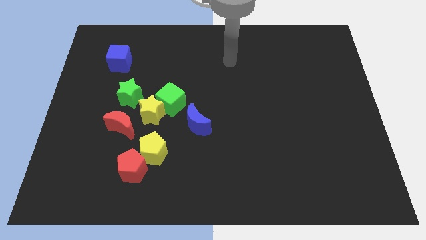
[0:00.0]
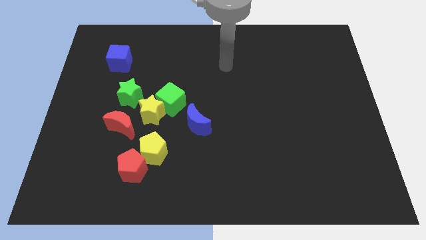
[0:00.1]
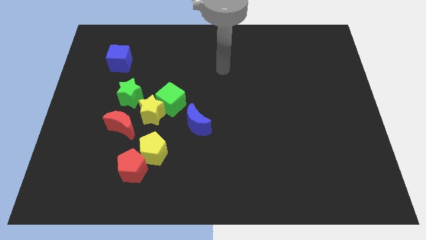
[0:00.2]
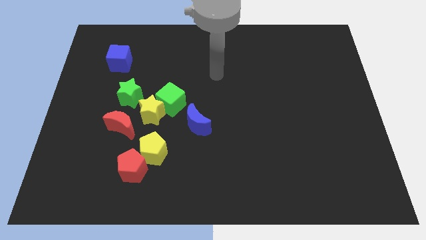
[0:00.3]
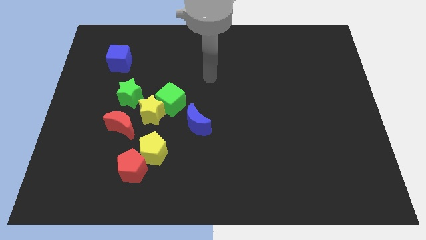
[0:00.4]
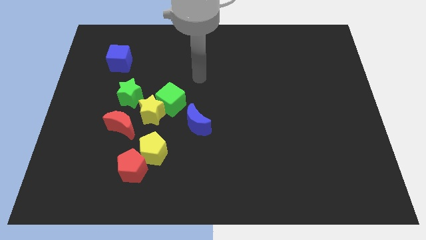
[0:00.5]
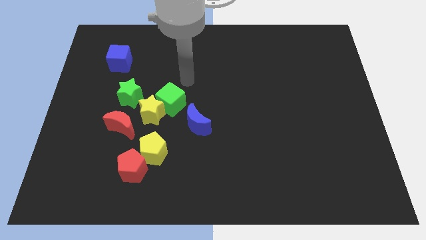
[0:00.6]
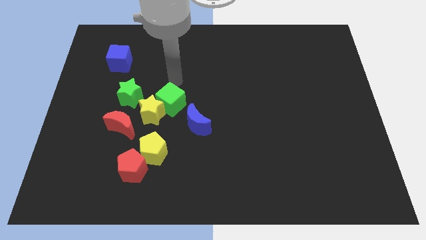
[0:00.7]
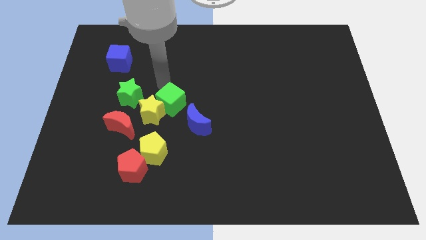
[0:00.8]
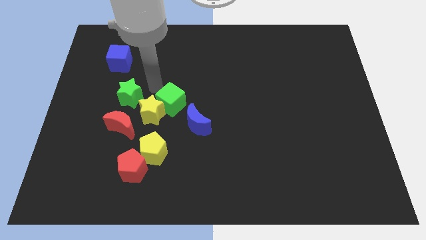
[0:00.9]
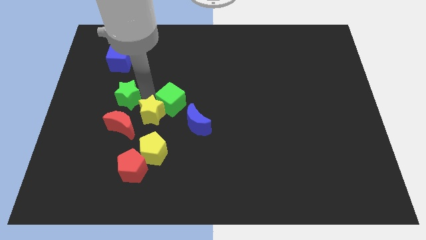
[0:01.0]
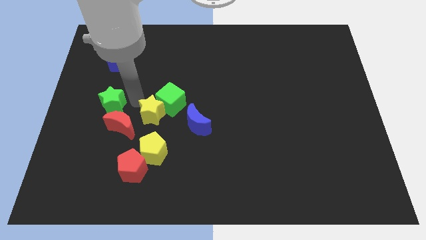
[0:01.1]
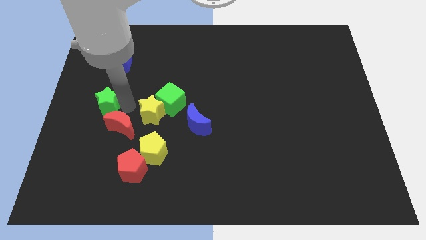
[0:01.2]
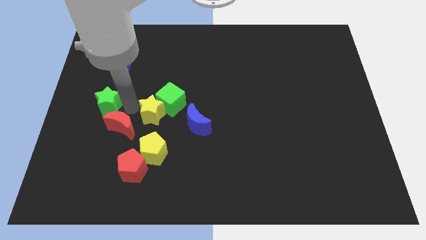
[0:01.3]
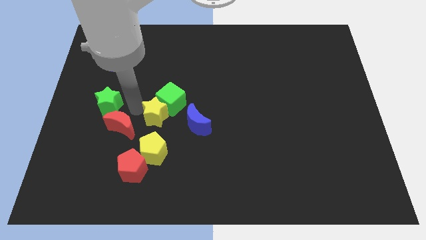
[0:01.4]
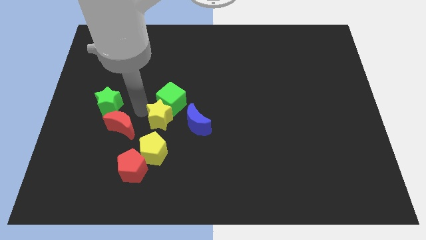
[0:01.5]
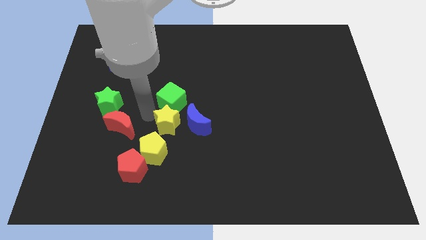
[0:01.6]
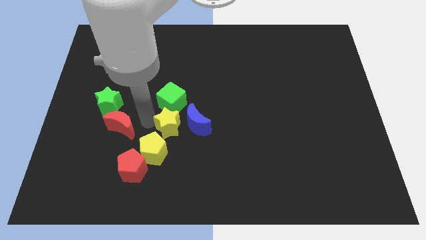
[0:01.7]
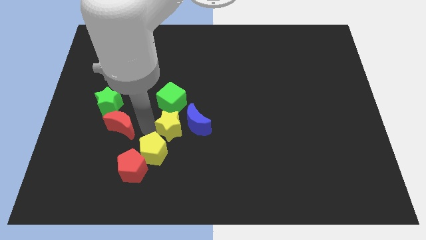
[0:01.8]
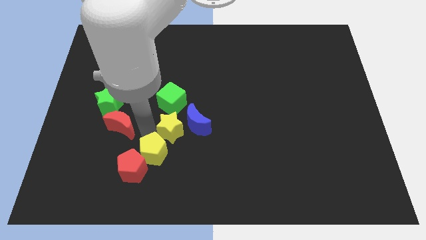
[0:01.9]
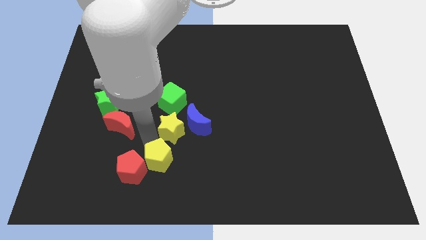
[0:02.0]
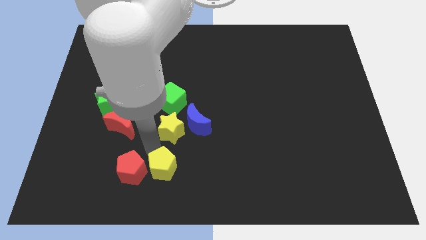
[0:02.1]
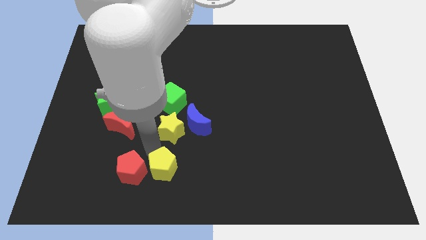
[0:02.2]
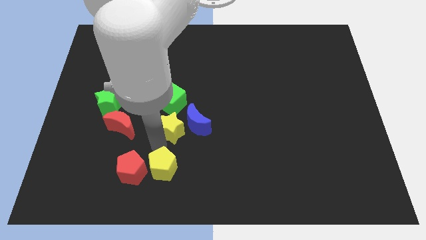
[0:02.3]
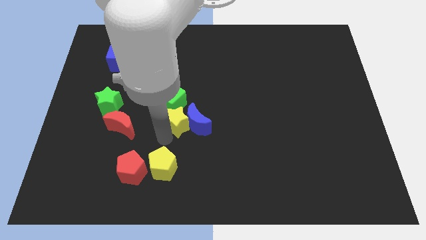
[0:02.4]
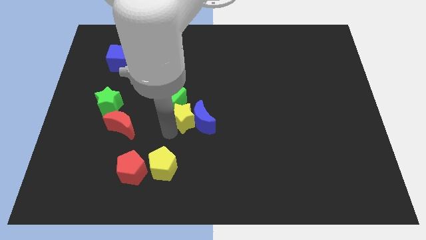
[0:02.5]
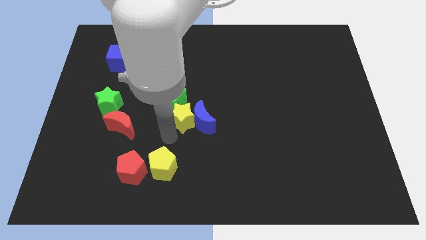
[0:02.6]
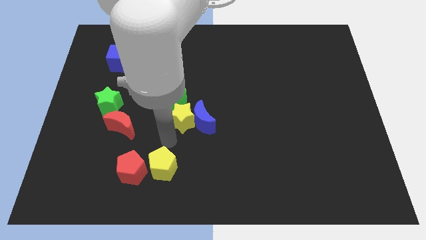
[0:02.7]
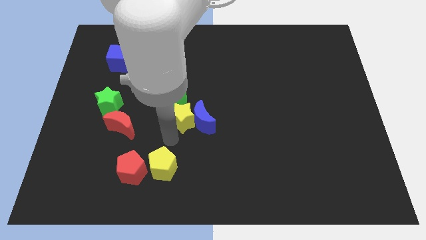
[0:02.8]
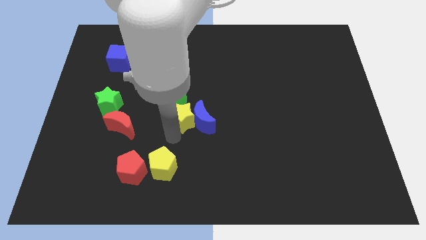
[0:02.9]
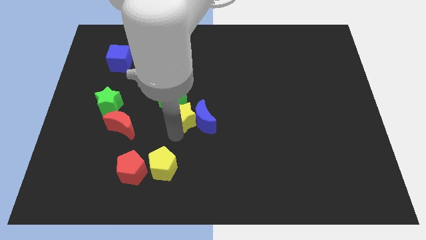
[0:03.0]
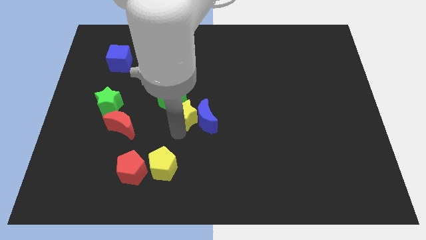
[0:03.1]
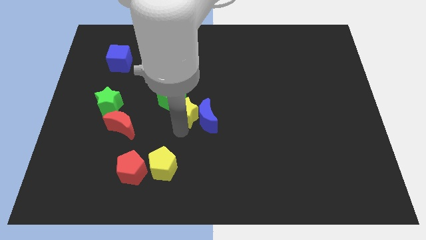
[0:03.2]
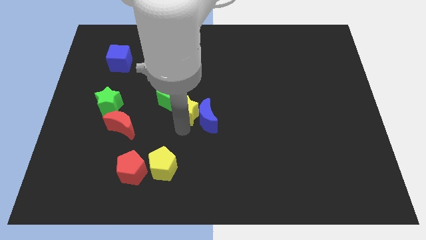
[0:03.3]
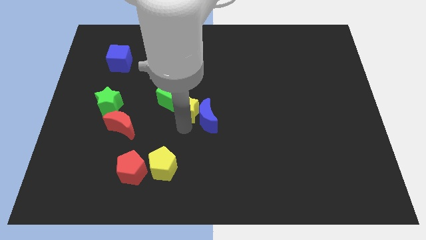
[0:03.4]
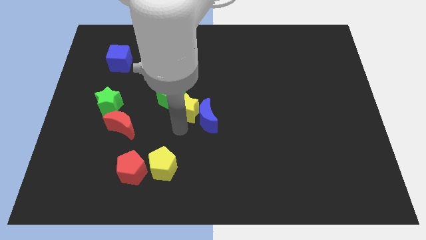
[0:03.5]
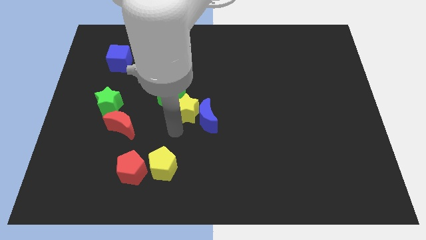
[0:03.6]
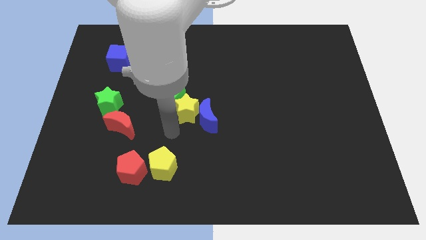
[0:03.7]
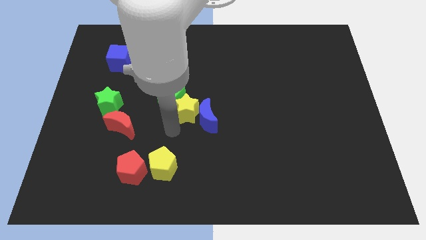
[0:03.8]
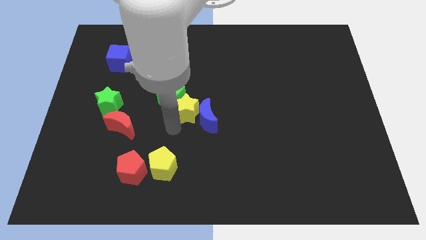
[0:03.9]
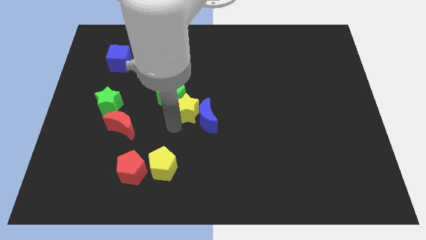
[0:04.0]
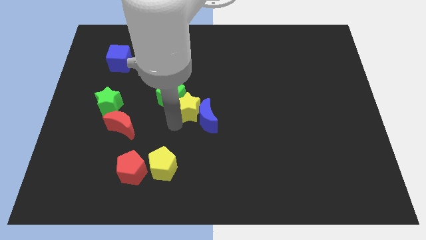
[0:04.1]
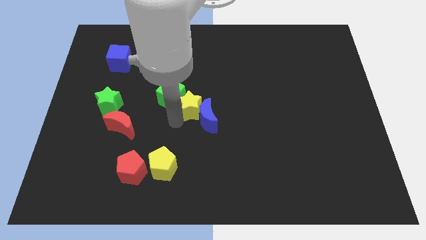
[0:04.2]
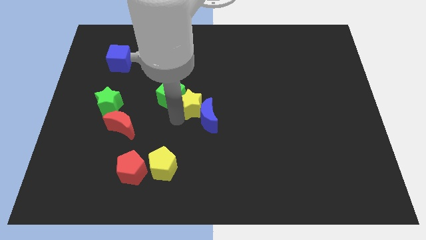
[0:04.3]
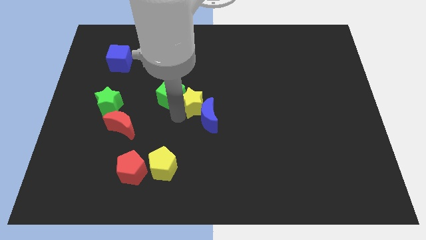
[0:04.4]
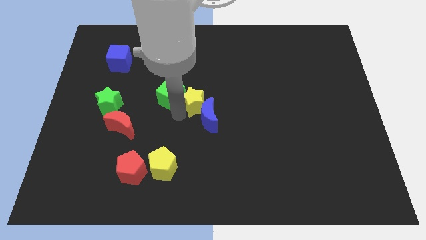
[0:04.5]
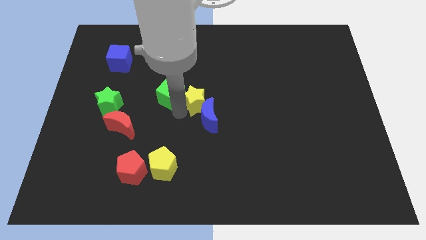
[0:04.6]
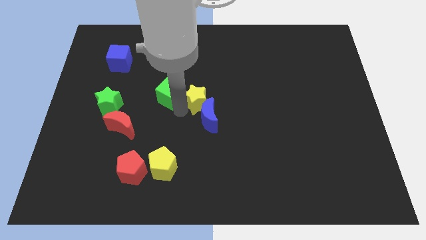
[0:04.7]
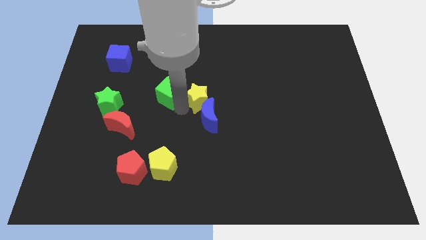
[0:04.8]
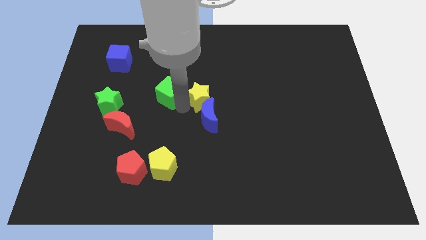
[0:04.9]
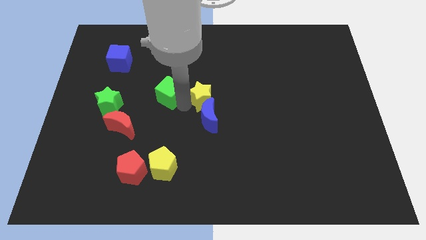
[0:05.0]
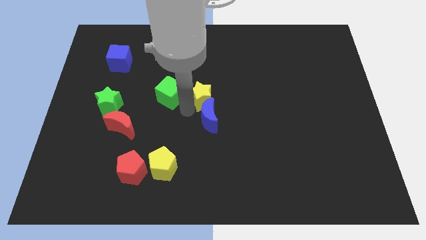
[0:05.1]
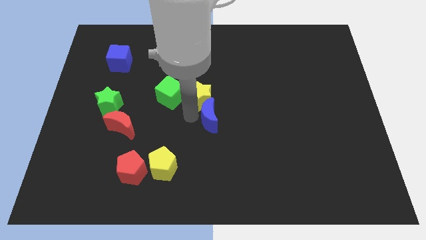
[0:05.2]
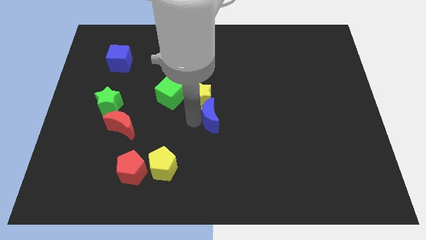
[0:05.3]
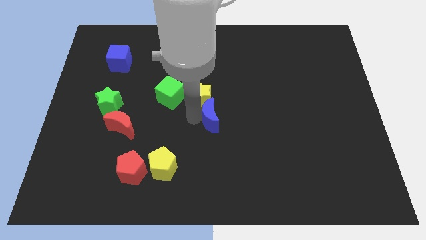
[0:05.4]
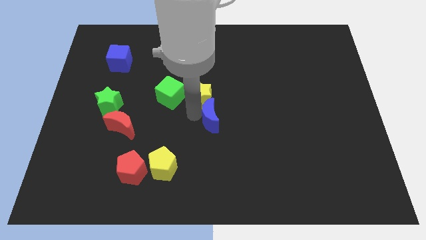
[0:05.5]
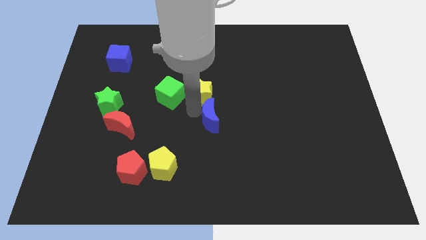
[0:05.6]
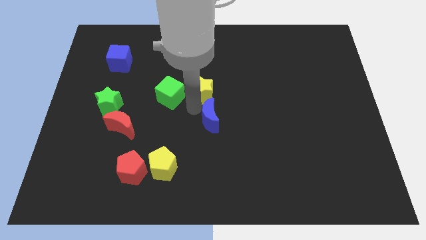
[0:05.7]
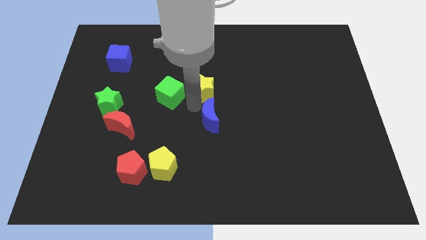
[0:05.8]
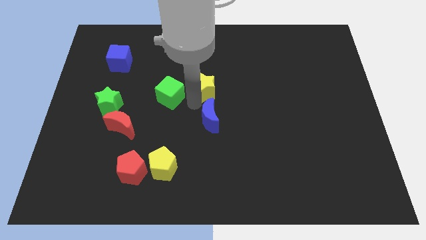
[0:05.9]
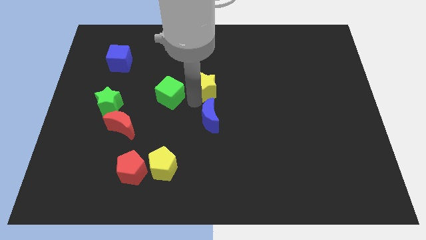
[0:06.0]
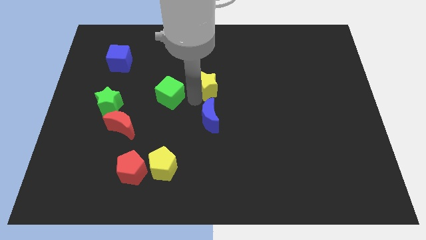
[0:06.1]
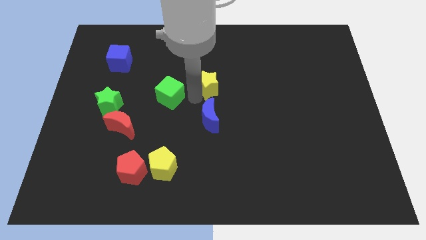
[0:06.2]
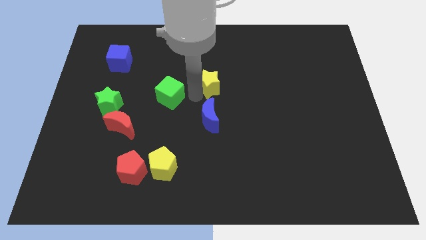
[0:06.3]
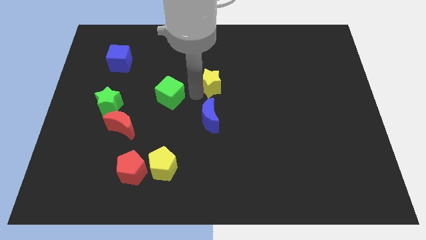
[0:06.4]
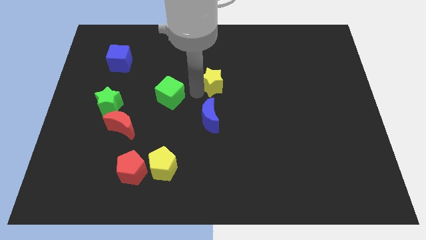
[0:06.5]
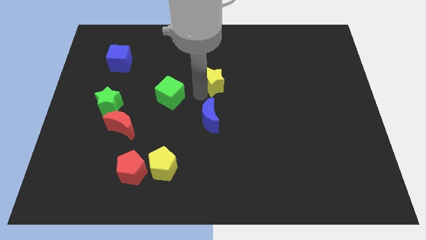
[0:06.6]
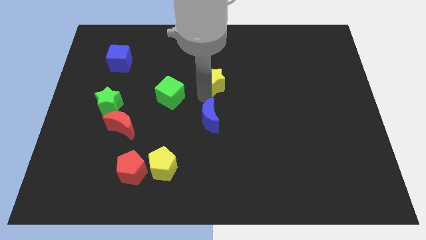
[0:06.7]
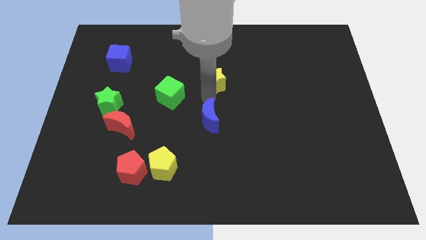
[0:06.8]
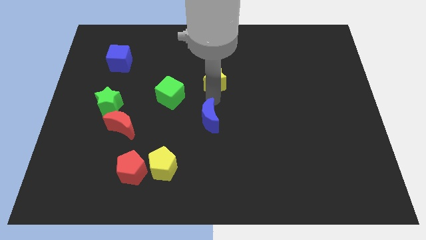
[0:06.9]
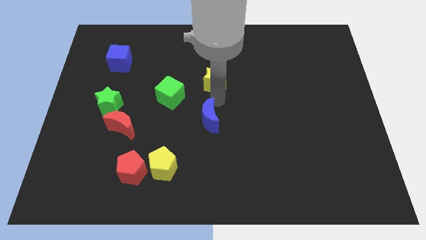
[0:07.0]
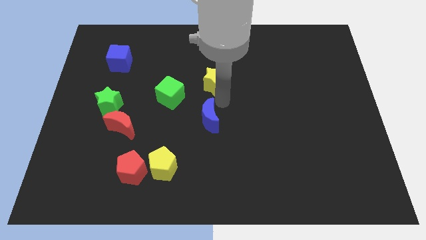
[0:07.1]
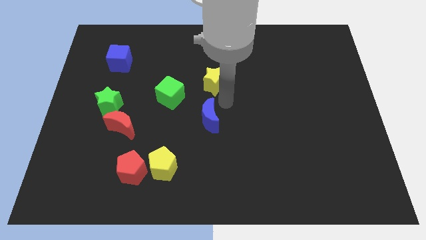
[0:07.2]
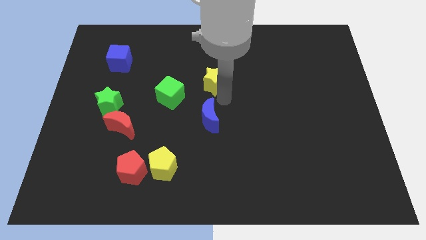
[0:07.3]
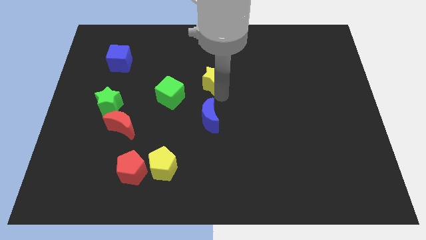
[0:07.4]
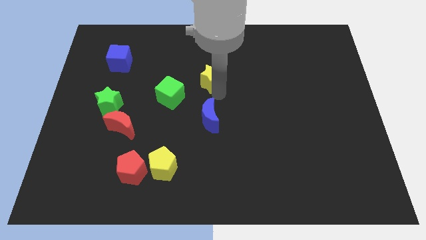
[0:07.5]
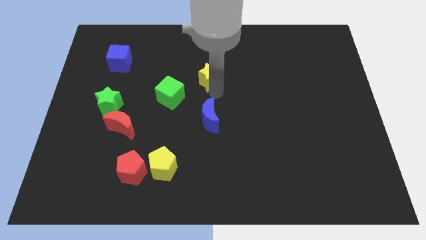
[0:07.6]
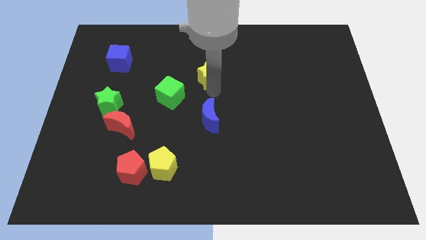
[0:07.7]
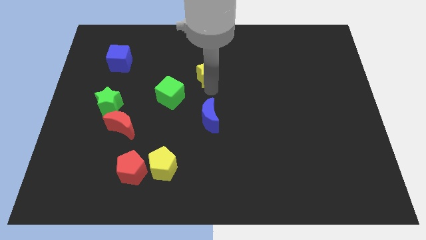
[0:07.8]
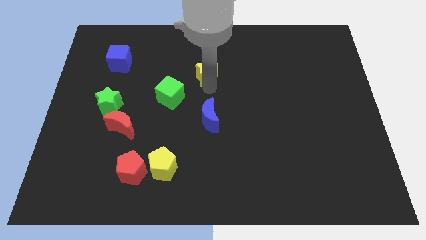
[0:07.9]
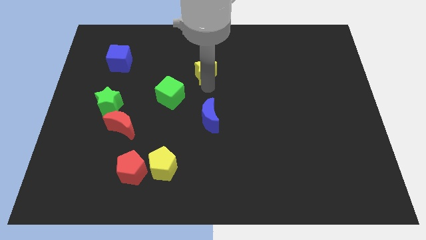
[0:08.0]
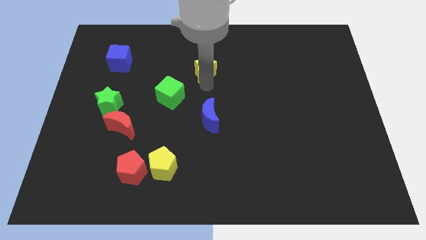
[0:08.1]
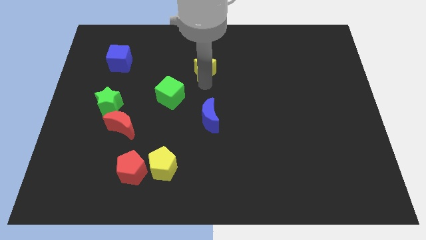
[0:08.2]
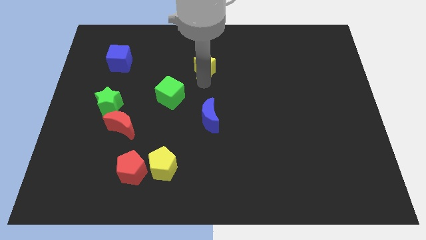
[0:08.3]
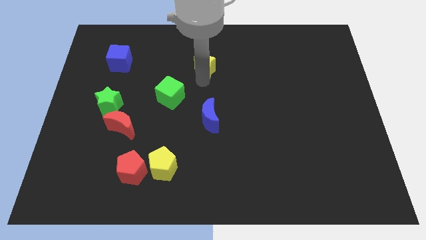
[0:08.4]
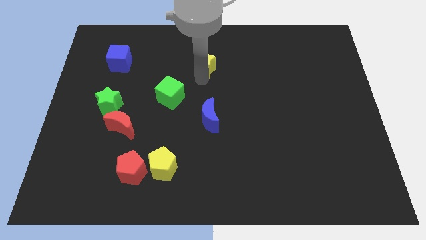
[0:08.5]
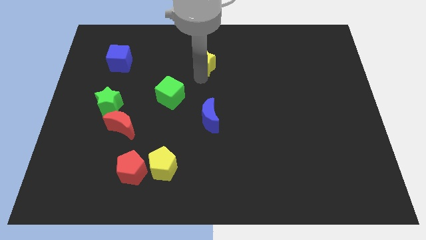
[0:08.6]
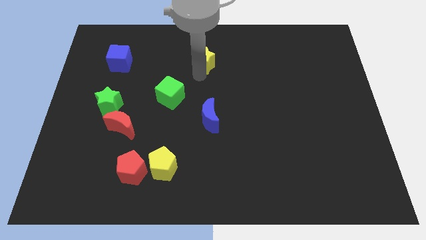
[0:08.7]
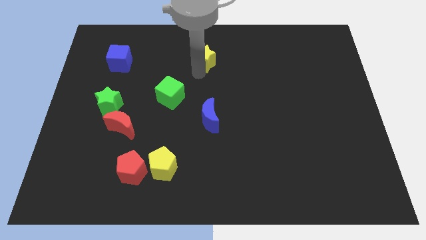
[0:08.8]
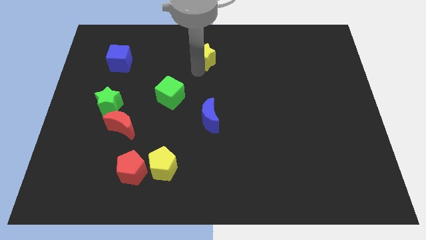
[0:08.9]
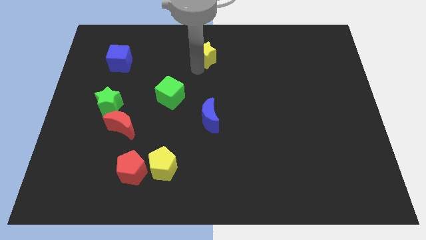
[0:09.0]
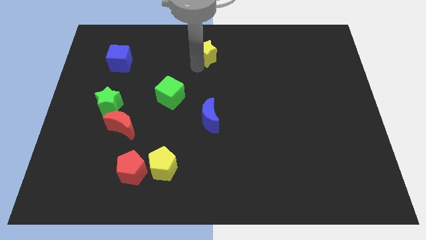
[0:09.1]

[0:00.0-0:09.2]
move the yellow star to the top side
